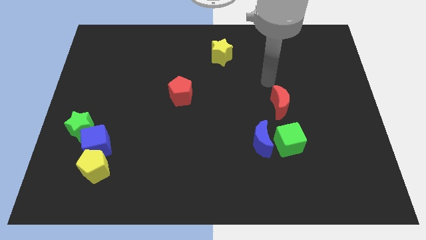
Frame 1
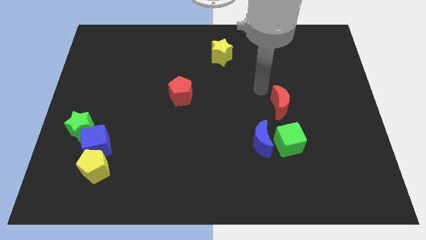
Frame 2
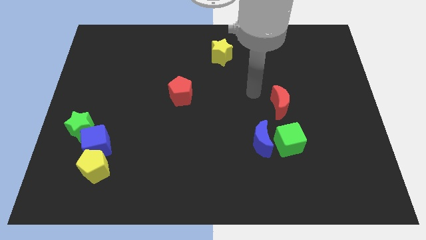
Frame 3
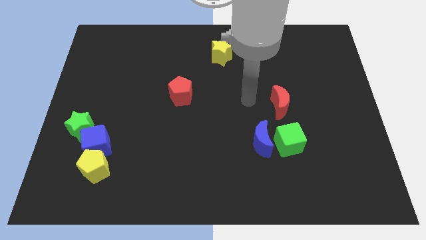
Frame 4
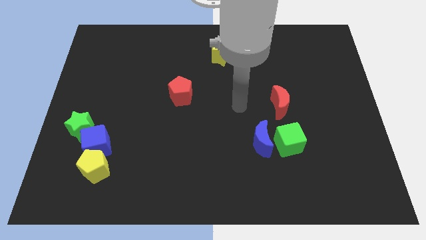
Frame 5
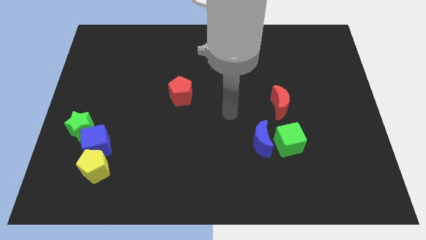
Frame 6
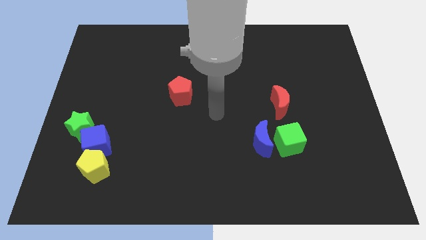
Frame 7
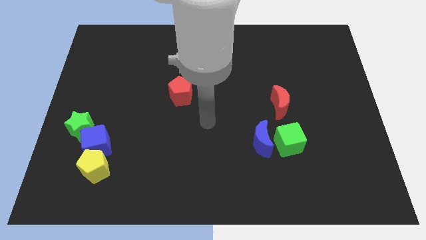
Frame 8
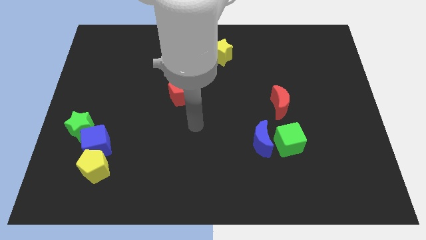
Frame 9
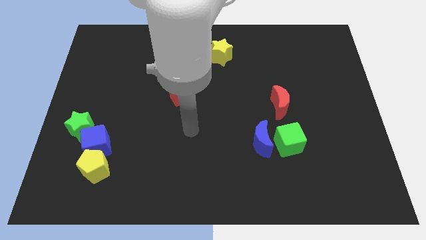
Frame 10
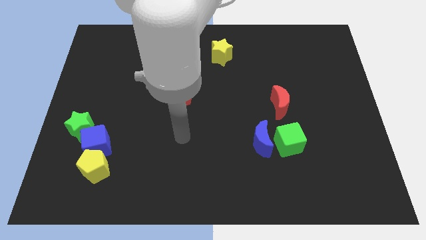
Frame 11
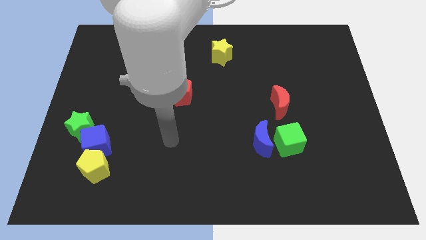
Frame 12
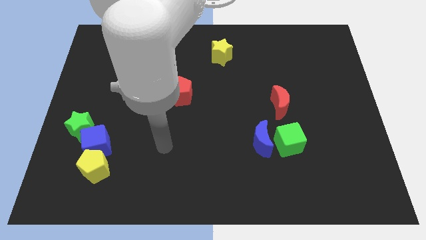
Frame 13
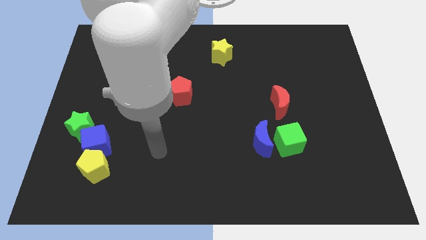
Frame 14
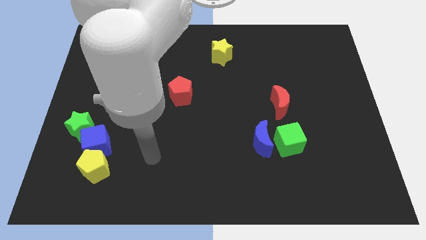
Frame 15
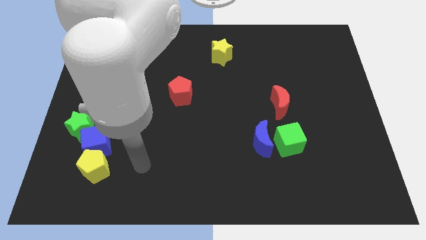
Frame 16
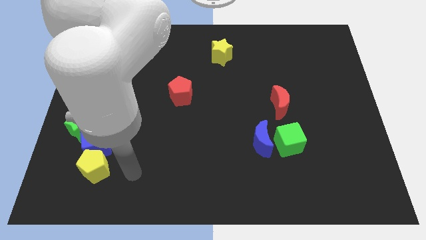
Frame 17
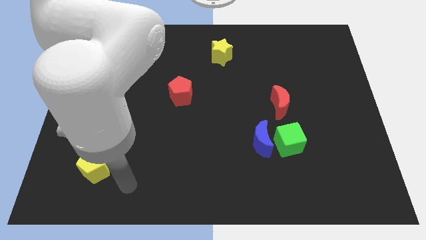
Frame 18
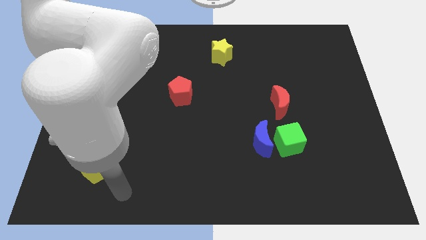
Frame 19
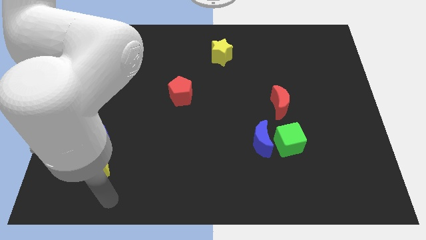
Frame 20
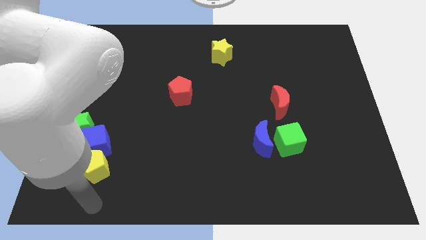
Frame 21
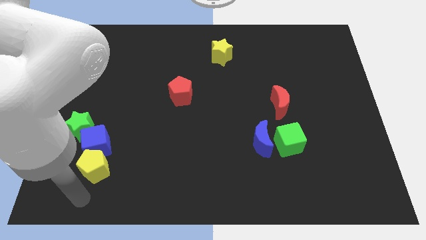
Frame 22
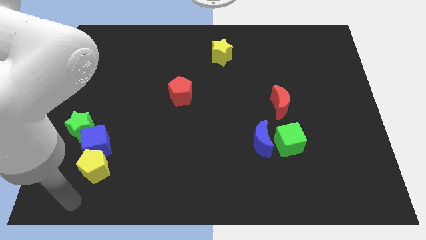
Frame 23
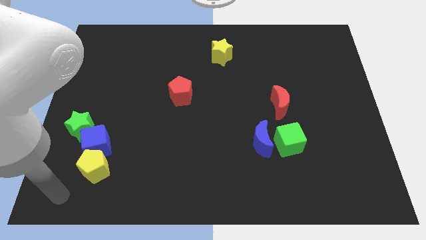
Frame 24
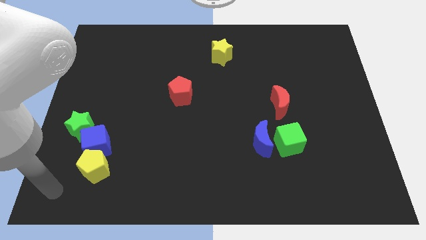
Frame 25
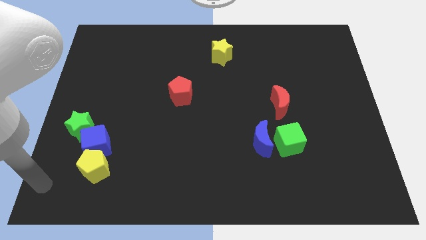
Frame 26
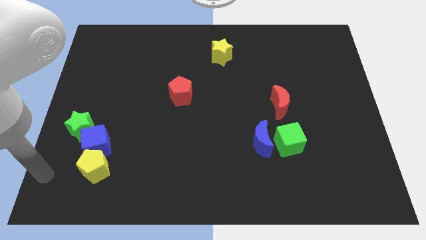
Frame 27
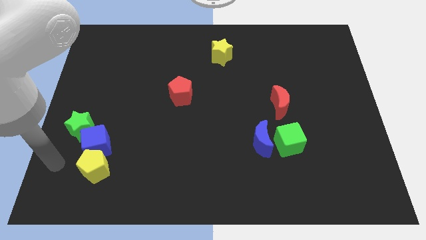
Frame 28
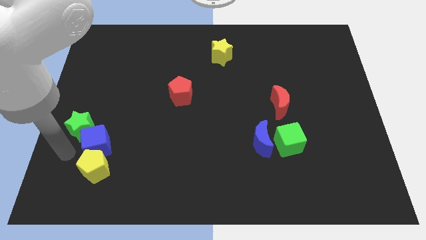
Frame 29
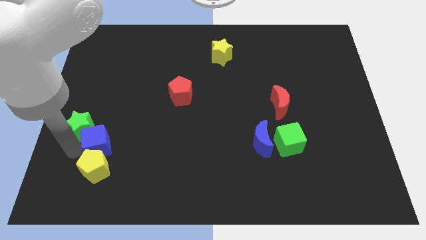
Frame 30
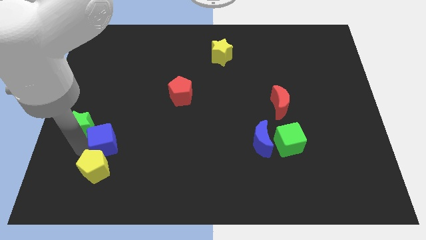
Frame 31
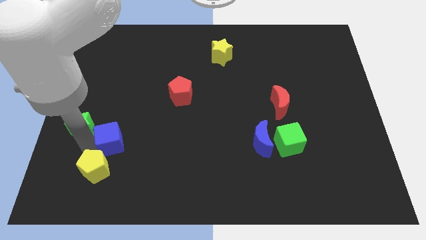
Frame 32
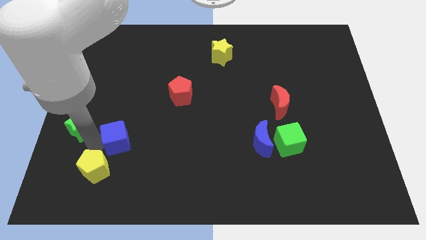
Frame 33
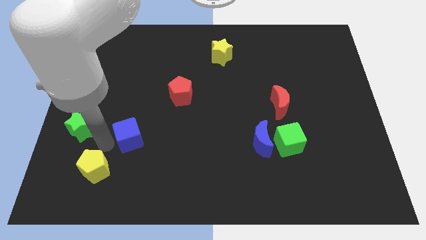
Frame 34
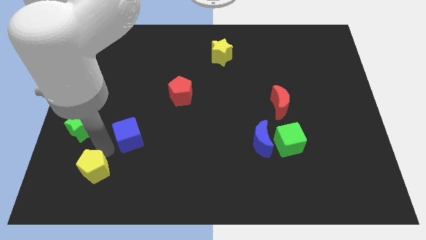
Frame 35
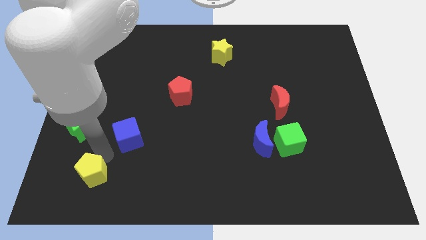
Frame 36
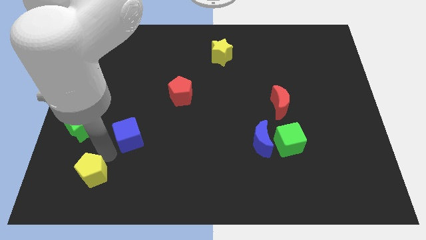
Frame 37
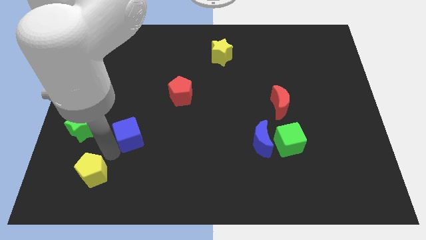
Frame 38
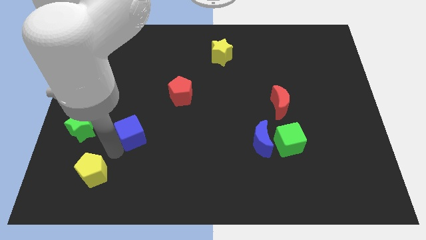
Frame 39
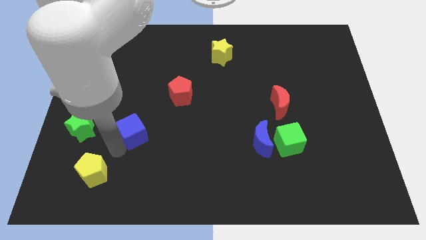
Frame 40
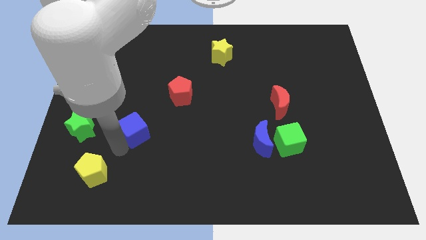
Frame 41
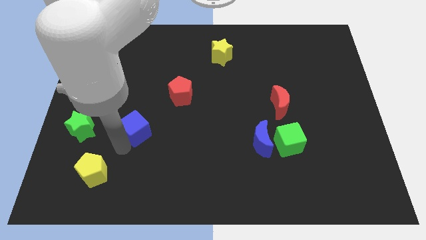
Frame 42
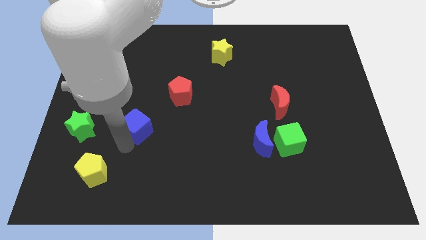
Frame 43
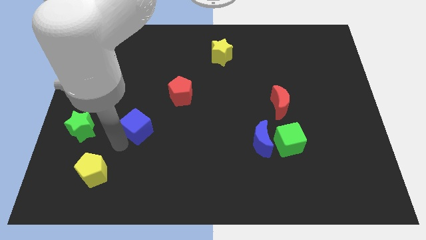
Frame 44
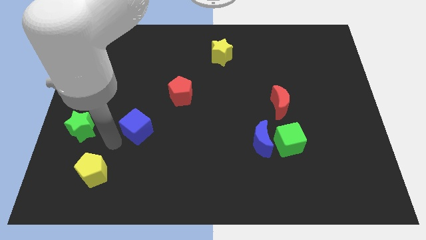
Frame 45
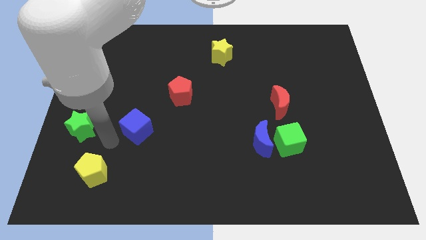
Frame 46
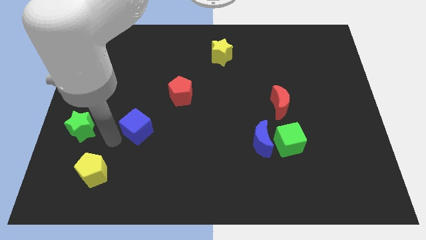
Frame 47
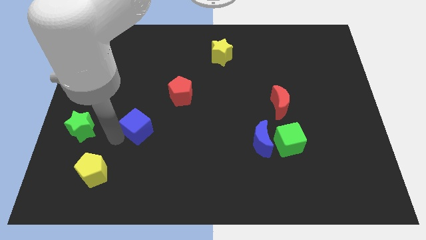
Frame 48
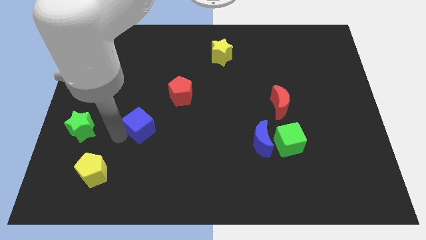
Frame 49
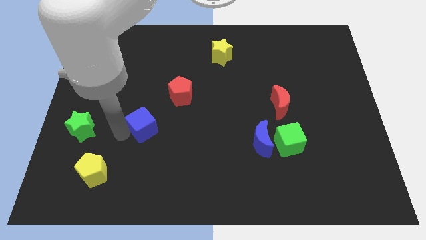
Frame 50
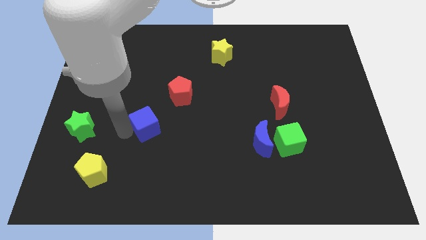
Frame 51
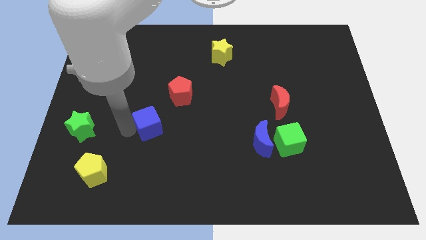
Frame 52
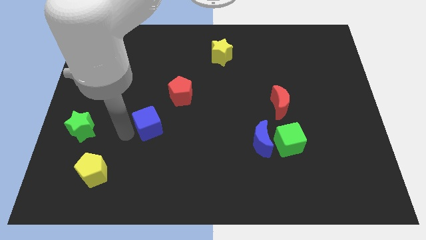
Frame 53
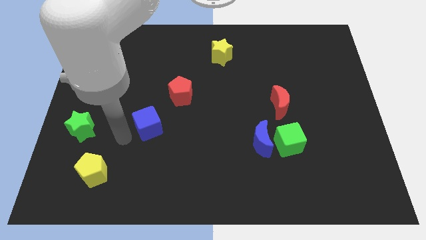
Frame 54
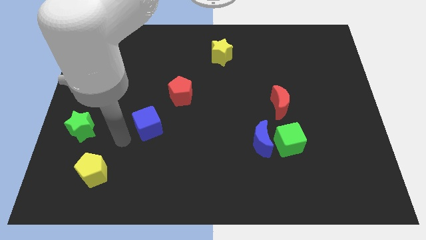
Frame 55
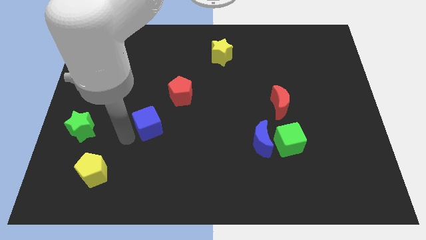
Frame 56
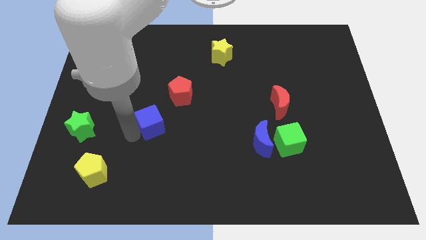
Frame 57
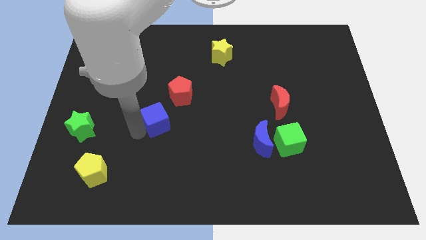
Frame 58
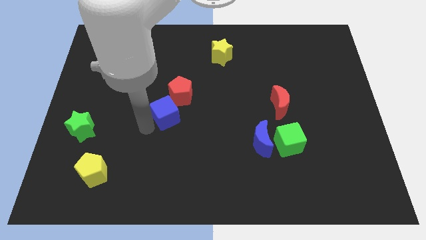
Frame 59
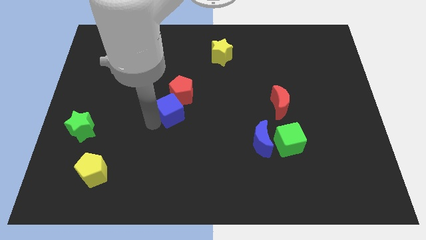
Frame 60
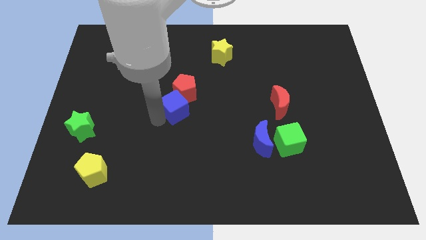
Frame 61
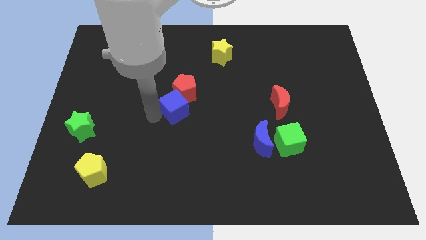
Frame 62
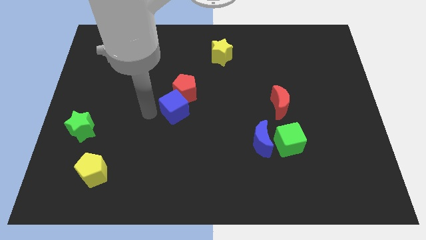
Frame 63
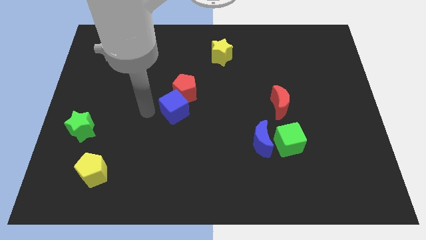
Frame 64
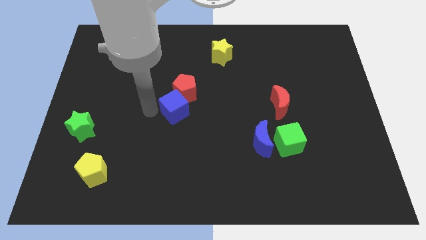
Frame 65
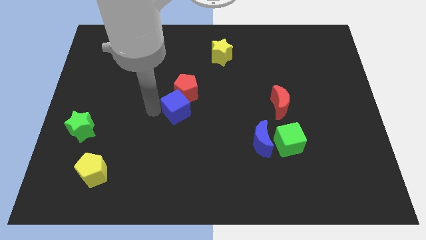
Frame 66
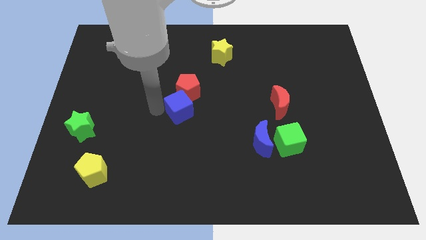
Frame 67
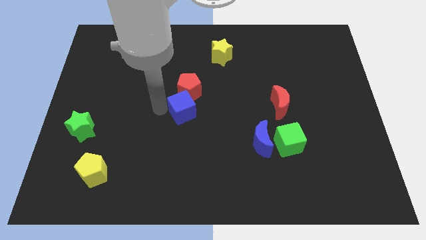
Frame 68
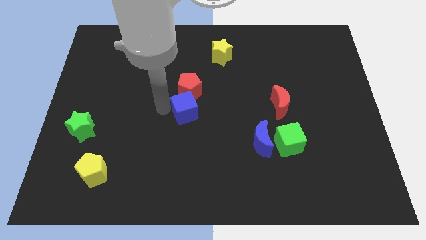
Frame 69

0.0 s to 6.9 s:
push the blue cube diagonally down and to the right of the red pentagon

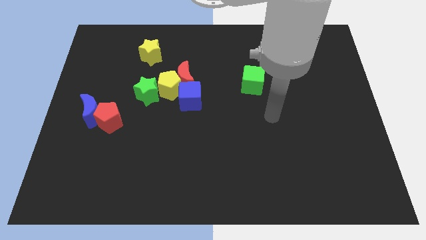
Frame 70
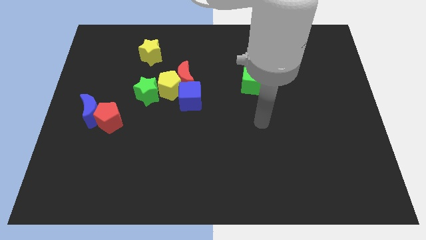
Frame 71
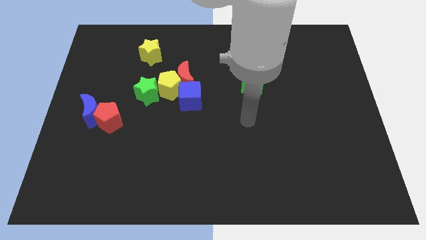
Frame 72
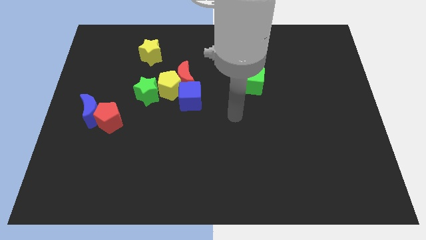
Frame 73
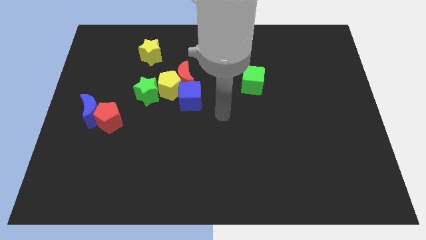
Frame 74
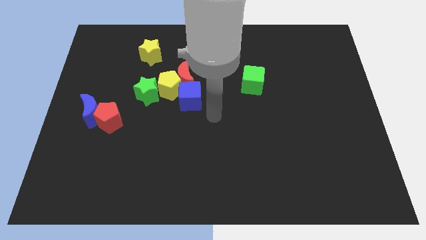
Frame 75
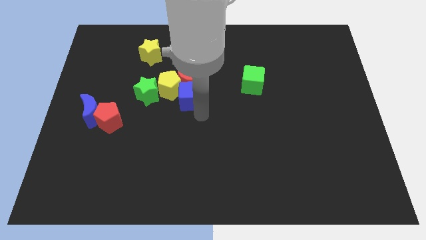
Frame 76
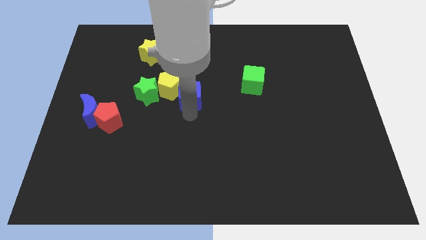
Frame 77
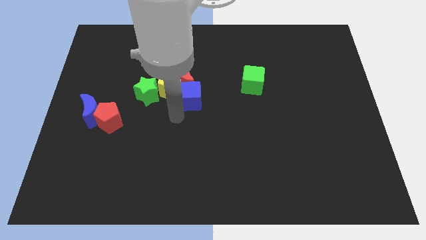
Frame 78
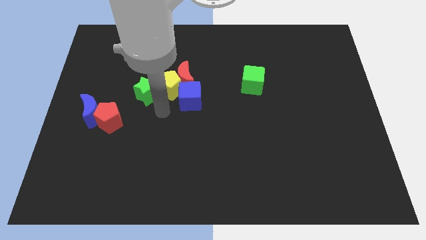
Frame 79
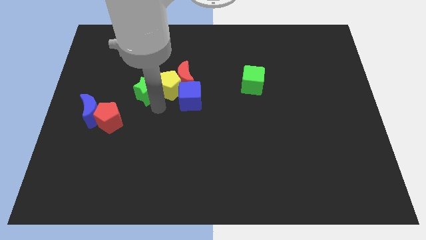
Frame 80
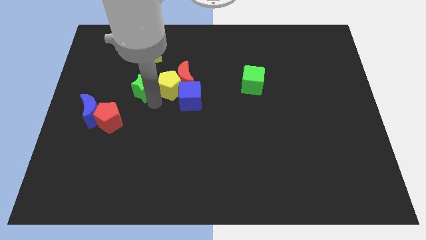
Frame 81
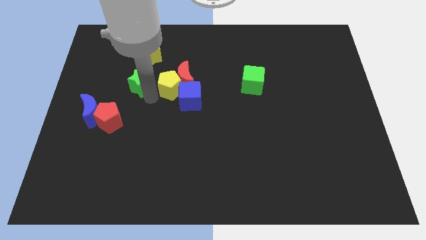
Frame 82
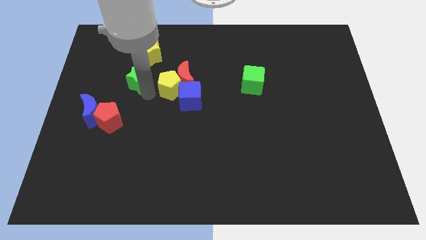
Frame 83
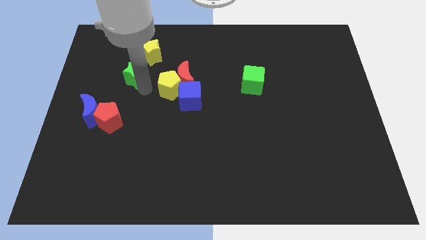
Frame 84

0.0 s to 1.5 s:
put the green star to the bottom left of the yellow star
